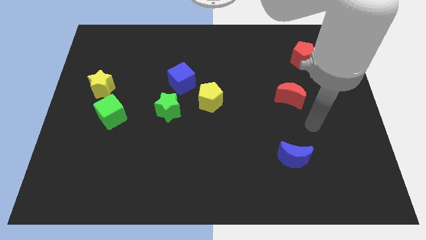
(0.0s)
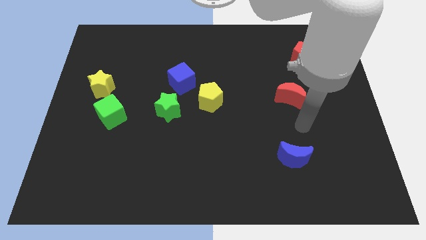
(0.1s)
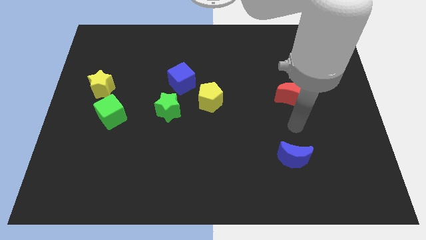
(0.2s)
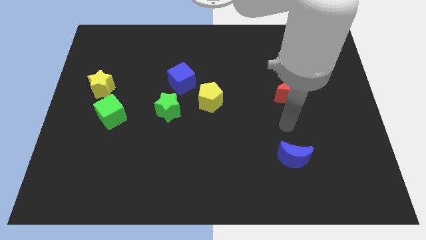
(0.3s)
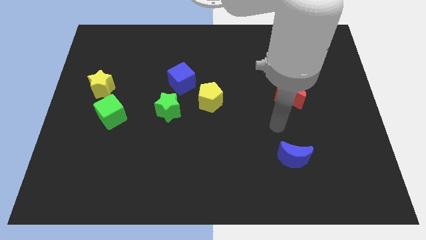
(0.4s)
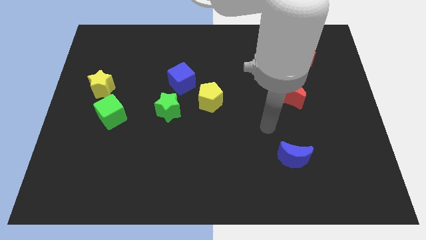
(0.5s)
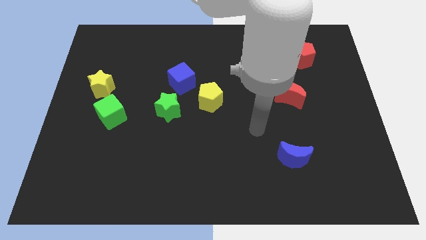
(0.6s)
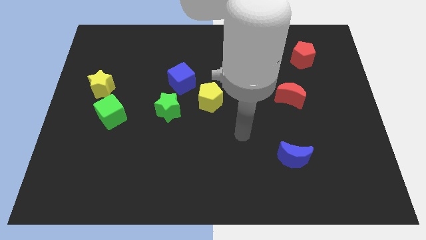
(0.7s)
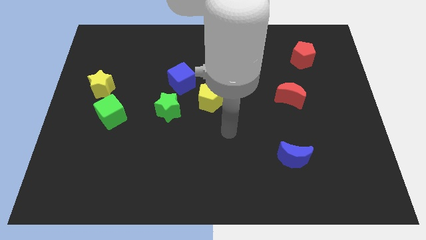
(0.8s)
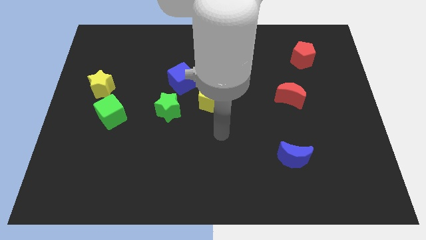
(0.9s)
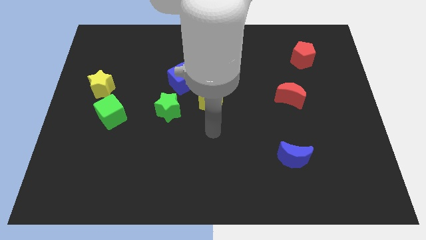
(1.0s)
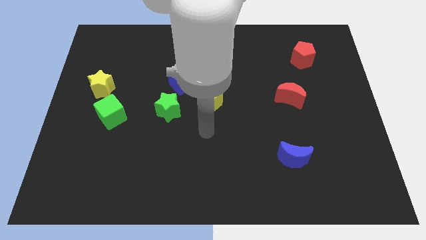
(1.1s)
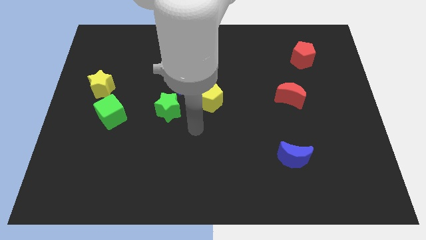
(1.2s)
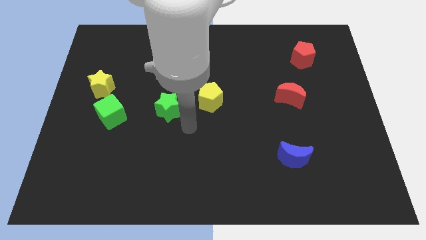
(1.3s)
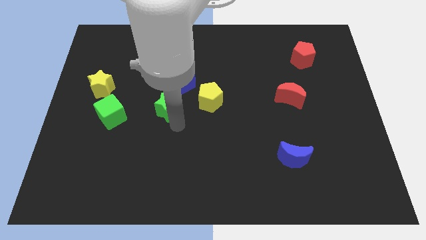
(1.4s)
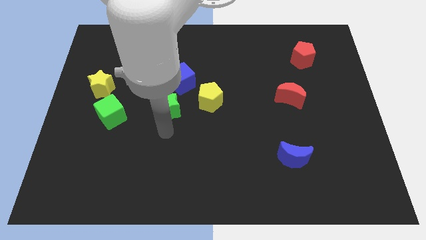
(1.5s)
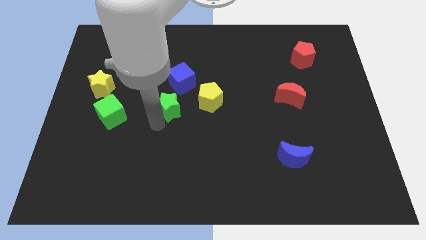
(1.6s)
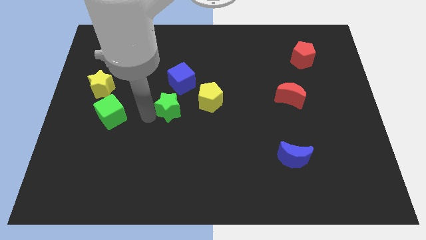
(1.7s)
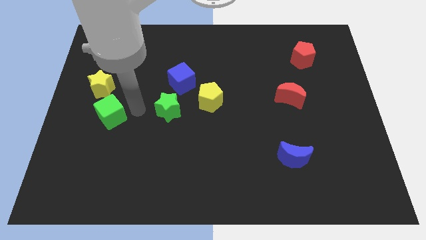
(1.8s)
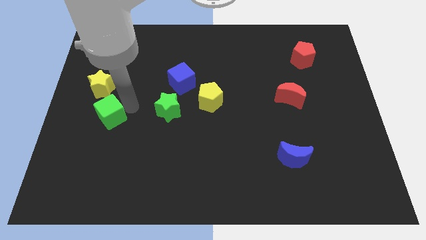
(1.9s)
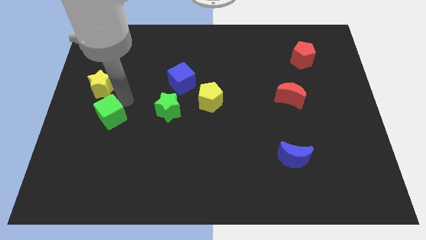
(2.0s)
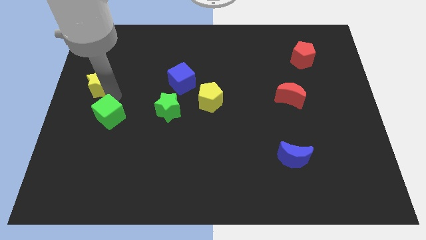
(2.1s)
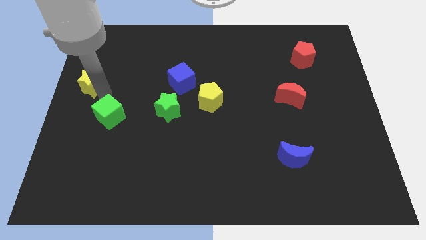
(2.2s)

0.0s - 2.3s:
pull the green cube apart from the yellow star

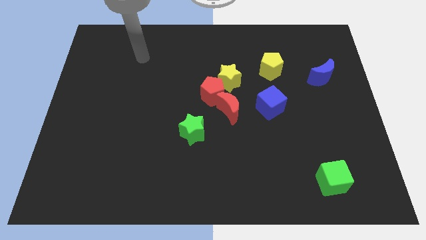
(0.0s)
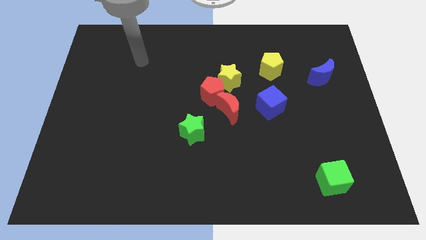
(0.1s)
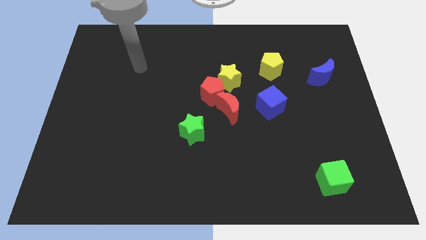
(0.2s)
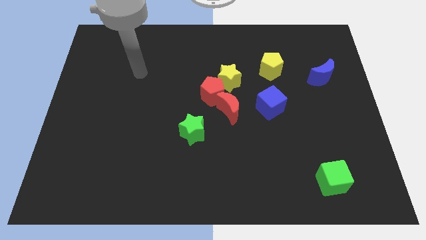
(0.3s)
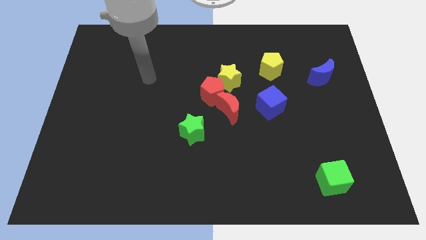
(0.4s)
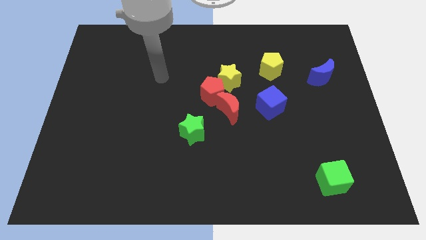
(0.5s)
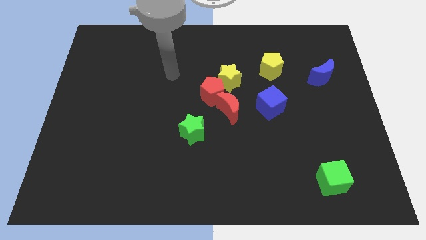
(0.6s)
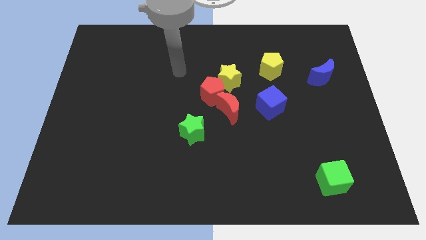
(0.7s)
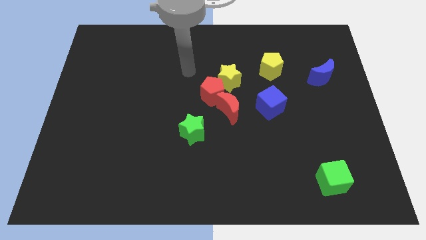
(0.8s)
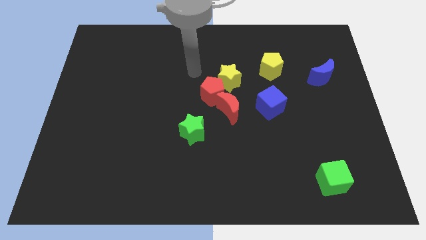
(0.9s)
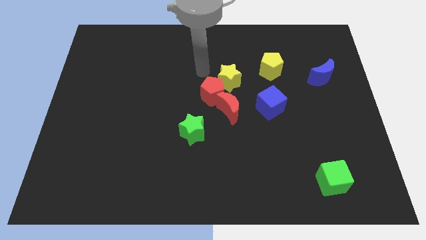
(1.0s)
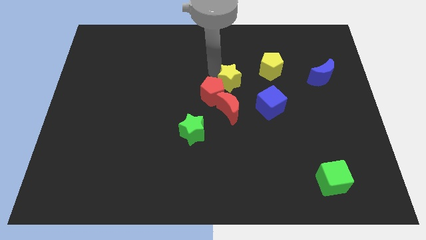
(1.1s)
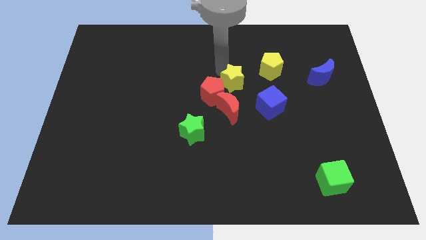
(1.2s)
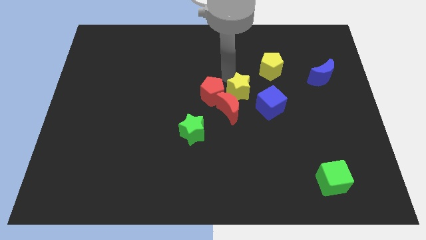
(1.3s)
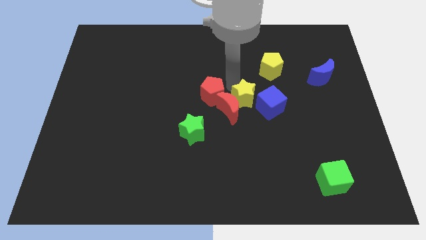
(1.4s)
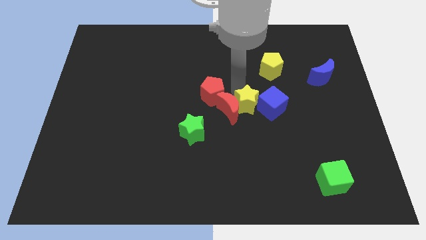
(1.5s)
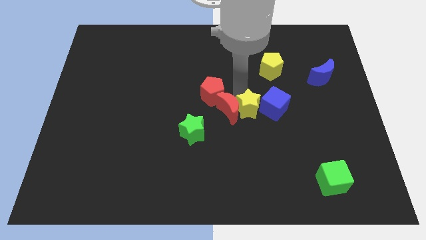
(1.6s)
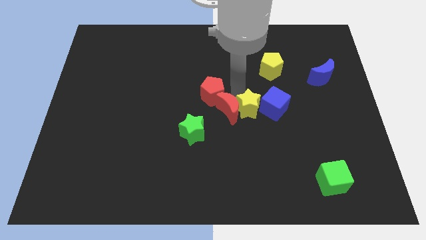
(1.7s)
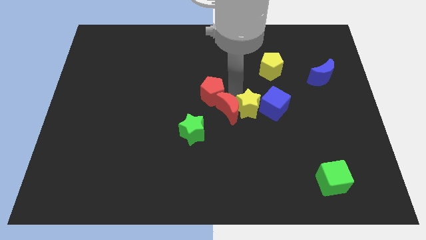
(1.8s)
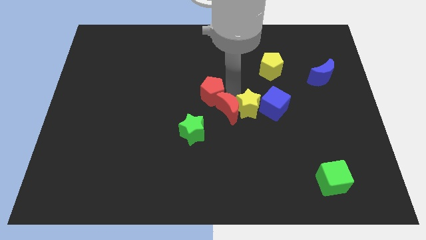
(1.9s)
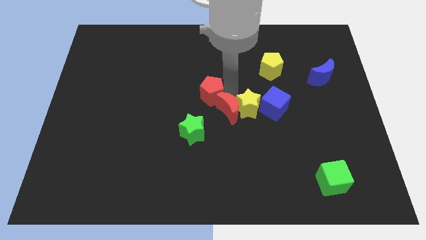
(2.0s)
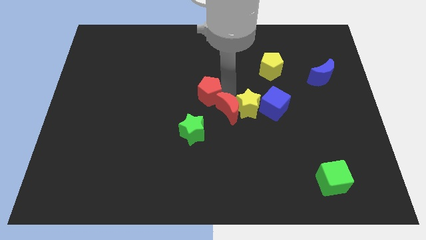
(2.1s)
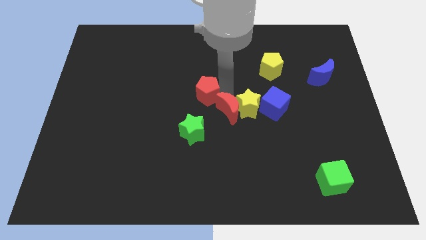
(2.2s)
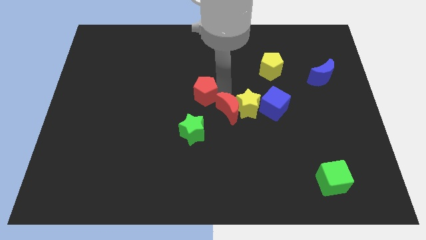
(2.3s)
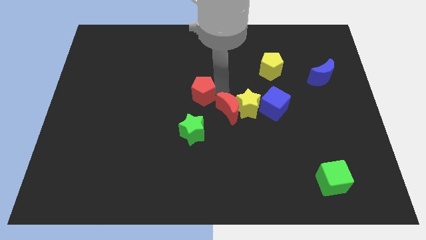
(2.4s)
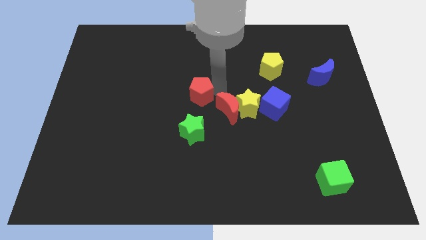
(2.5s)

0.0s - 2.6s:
move the red pentagon away from the yellow star and red moon

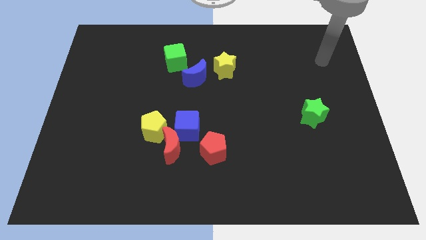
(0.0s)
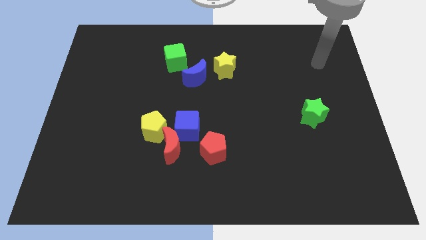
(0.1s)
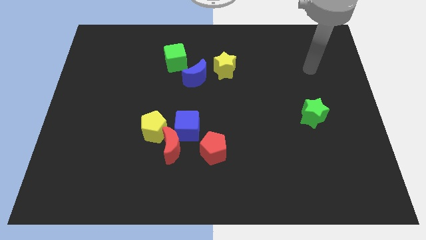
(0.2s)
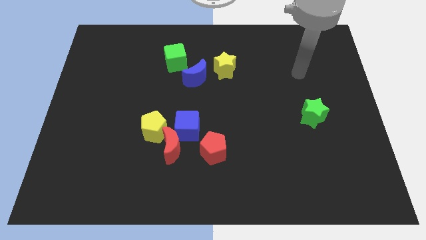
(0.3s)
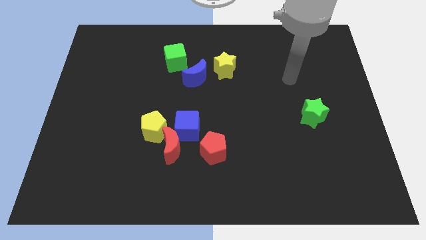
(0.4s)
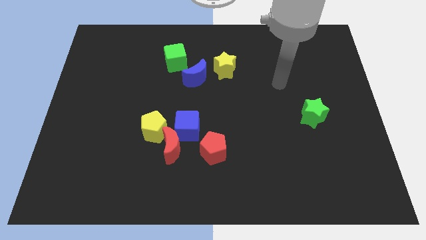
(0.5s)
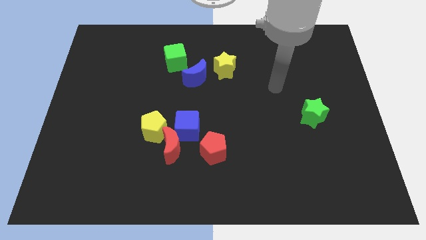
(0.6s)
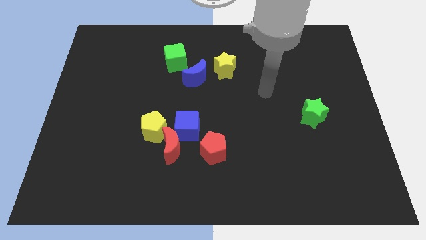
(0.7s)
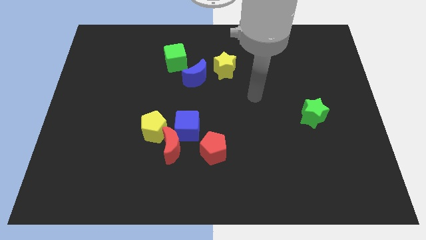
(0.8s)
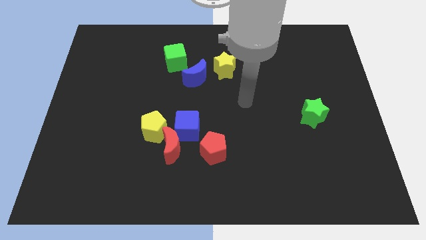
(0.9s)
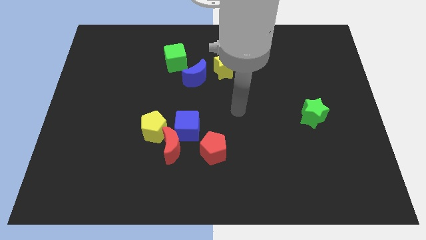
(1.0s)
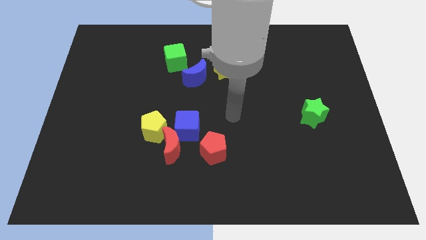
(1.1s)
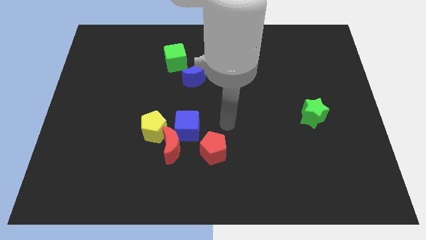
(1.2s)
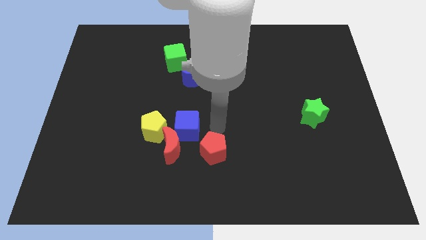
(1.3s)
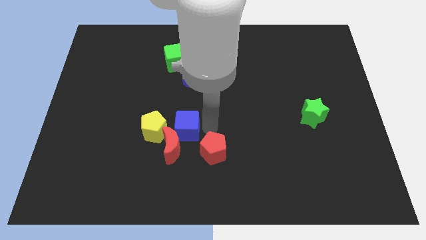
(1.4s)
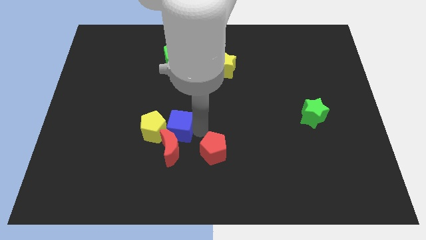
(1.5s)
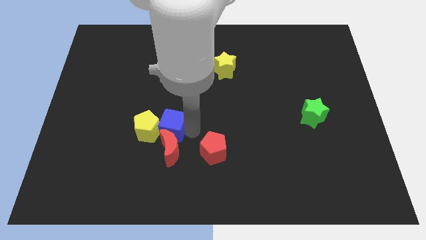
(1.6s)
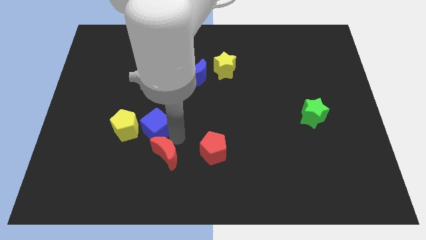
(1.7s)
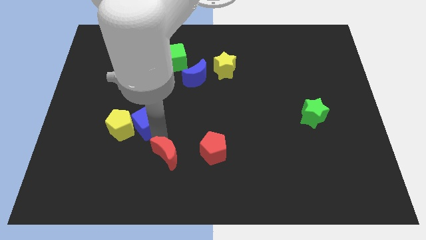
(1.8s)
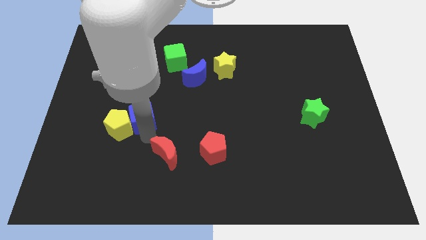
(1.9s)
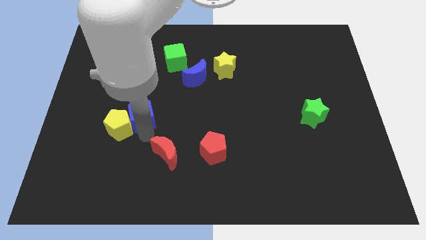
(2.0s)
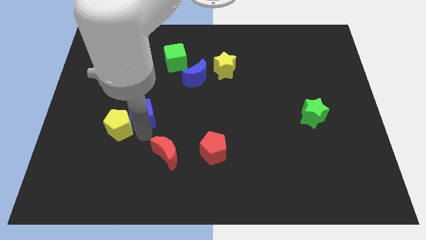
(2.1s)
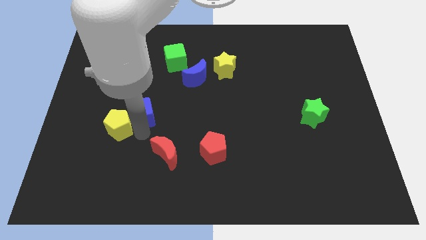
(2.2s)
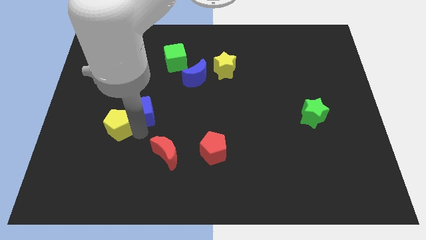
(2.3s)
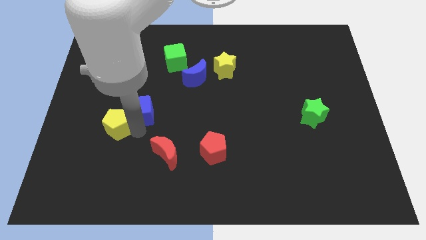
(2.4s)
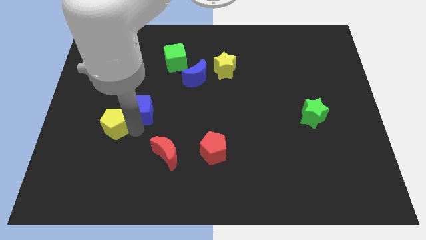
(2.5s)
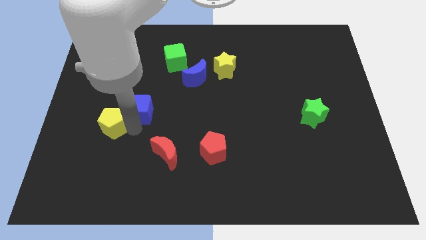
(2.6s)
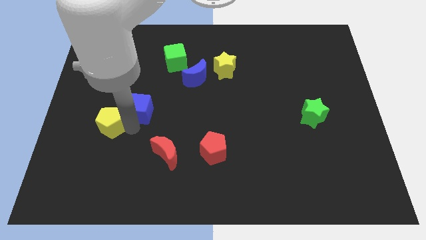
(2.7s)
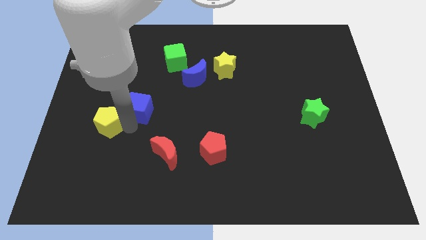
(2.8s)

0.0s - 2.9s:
move the yellow pentagon away from the red moon and blue cube

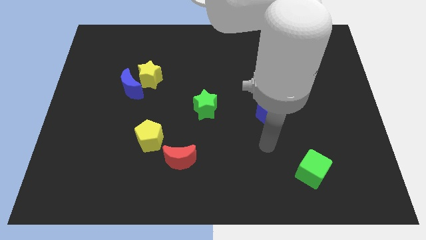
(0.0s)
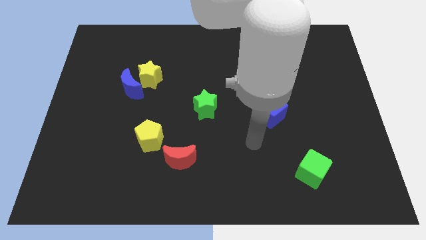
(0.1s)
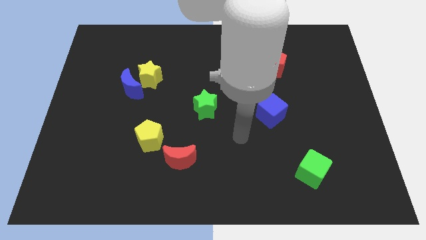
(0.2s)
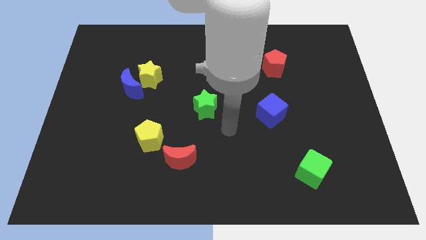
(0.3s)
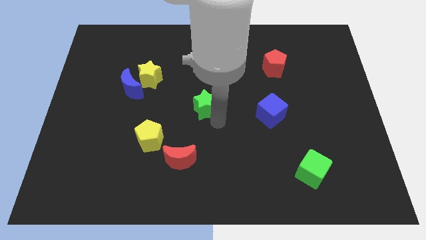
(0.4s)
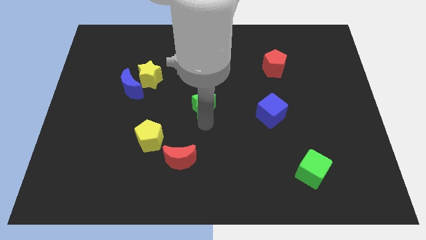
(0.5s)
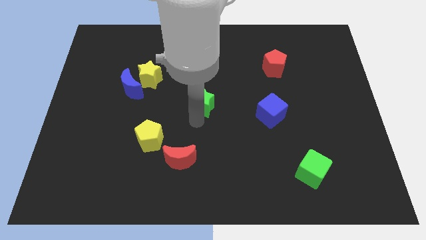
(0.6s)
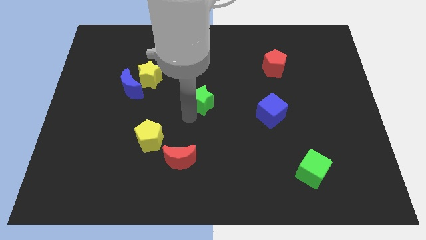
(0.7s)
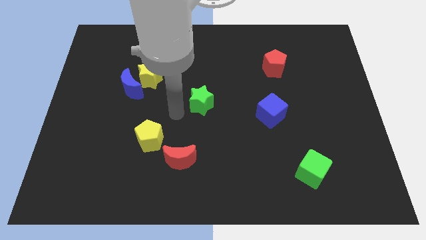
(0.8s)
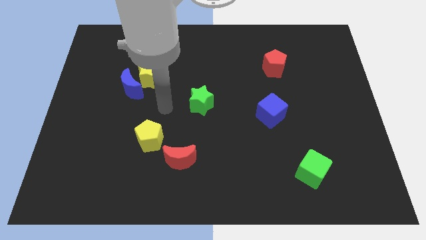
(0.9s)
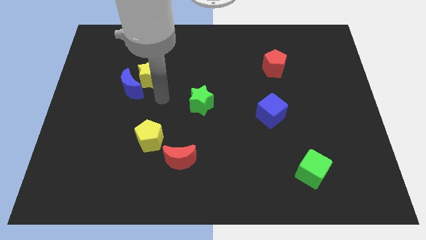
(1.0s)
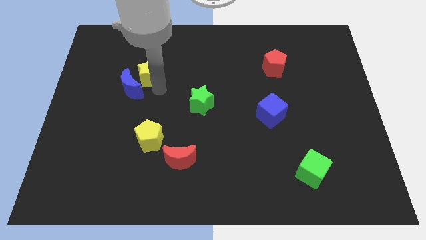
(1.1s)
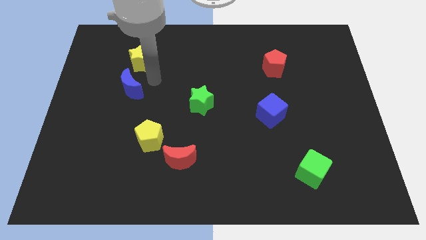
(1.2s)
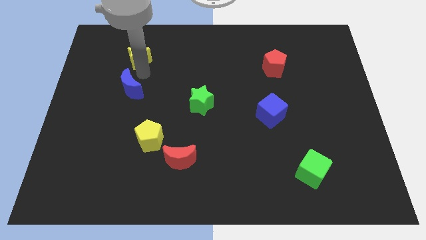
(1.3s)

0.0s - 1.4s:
pull the blue moon apart from the yellow star
